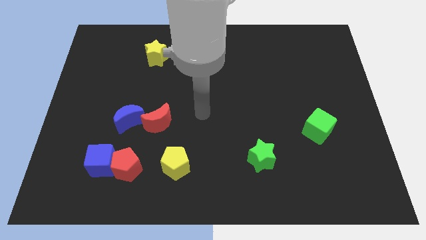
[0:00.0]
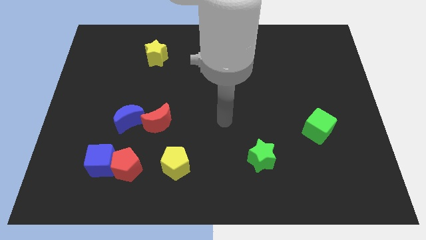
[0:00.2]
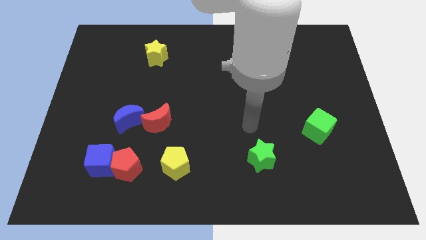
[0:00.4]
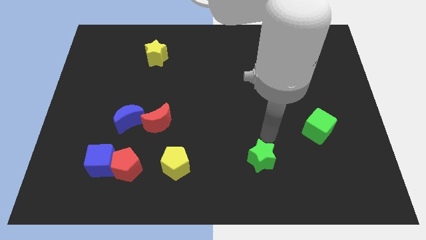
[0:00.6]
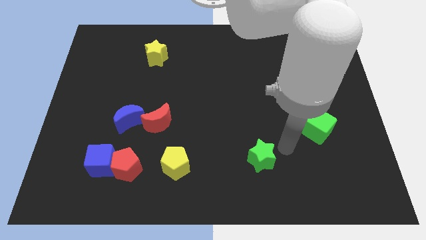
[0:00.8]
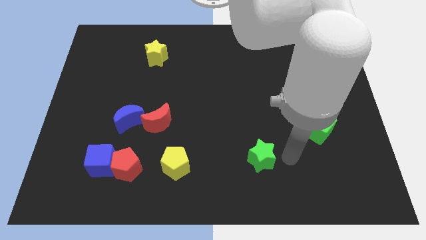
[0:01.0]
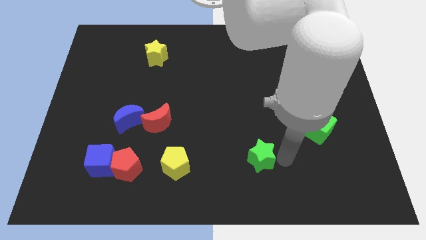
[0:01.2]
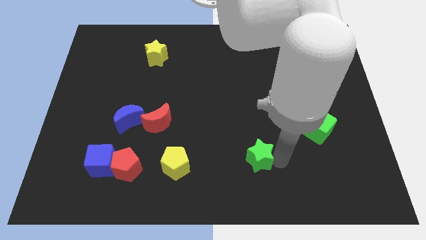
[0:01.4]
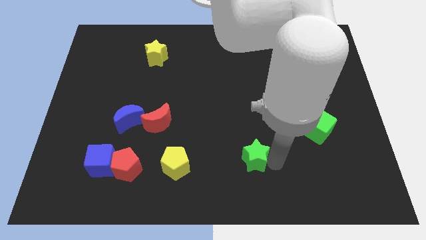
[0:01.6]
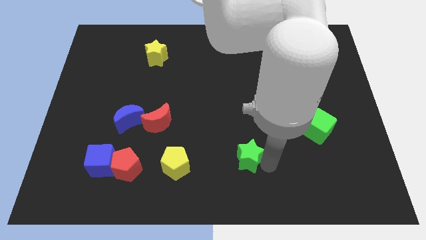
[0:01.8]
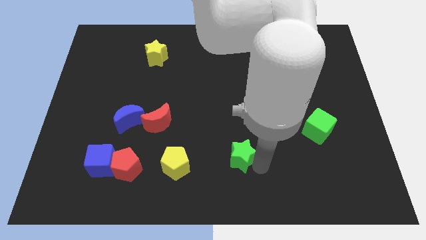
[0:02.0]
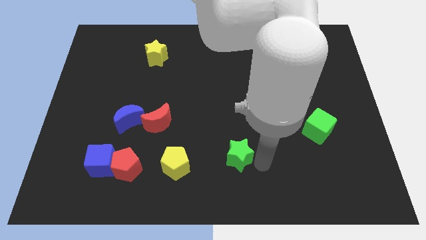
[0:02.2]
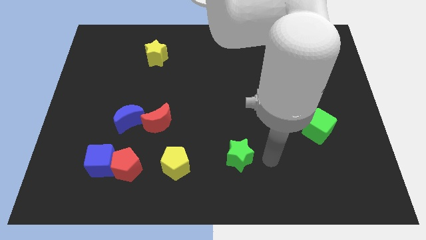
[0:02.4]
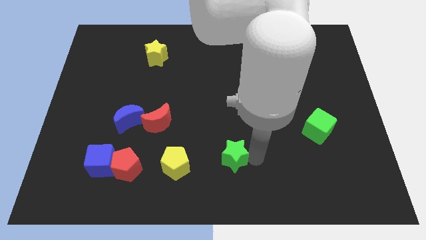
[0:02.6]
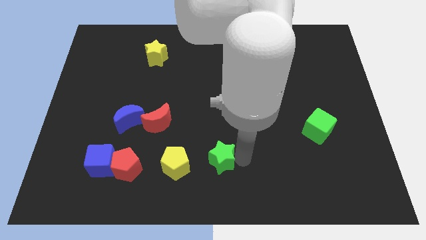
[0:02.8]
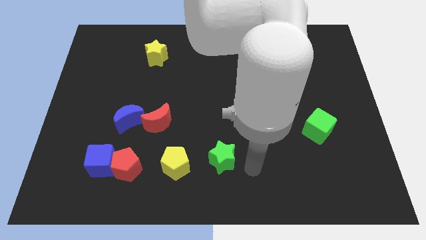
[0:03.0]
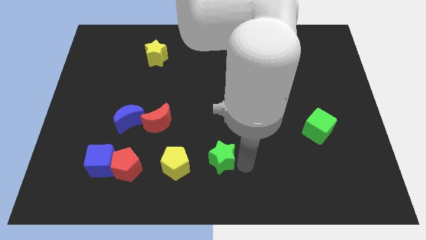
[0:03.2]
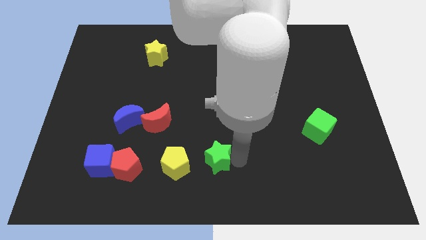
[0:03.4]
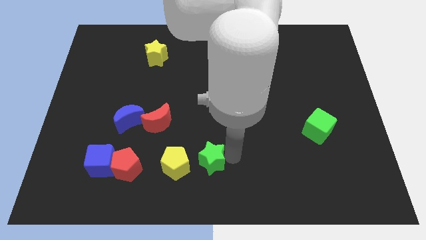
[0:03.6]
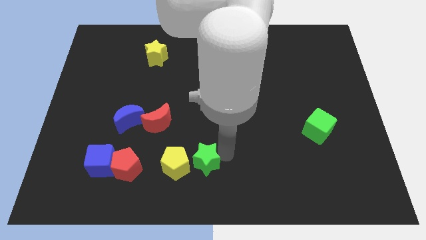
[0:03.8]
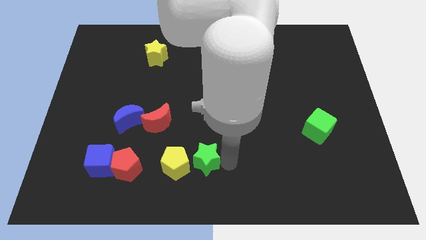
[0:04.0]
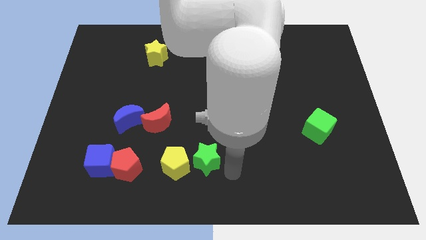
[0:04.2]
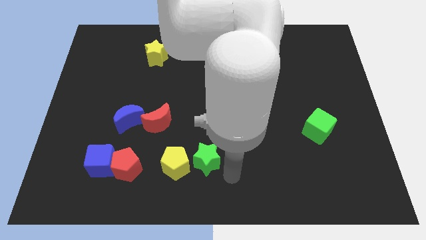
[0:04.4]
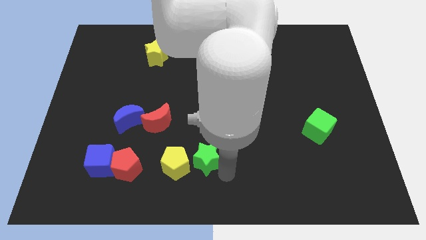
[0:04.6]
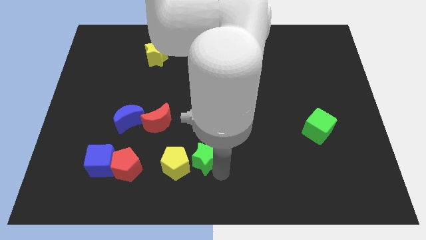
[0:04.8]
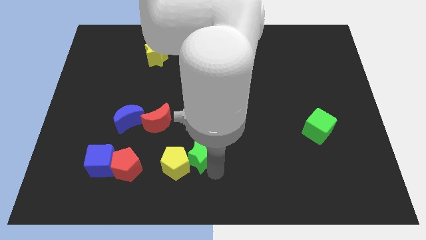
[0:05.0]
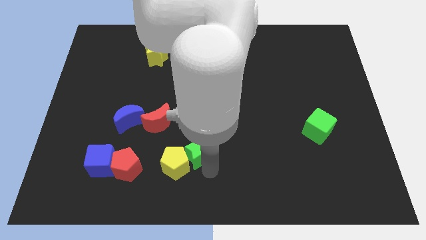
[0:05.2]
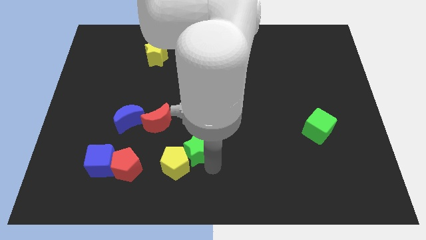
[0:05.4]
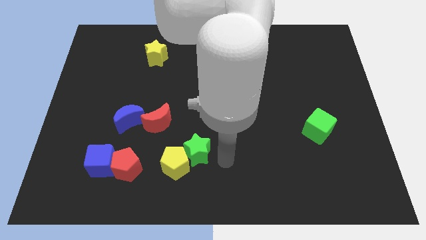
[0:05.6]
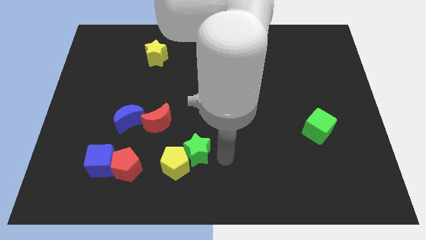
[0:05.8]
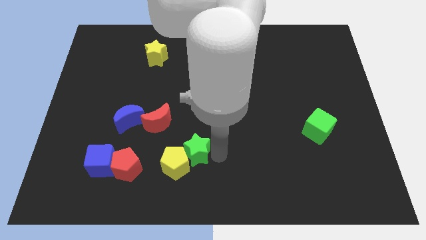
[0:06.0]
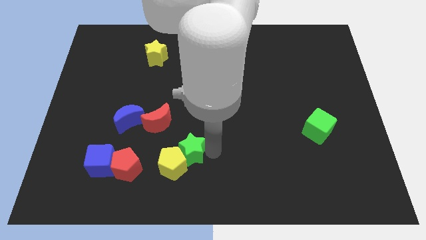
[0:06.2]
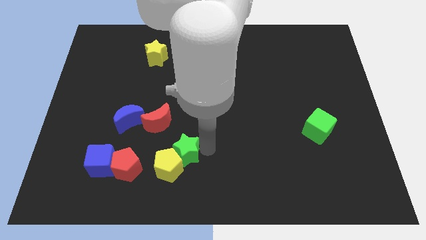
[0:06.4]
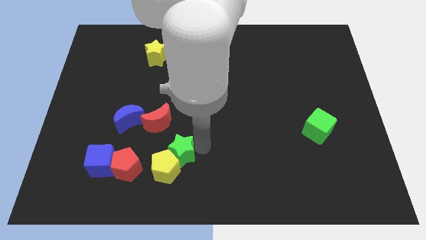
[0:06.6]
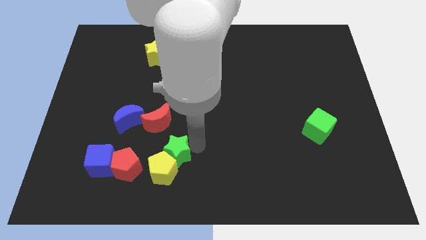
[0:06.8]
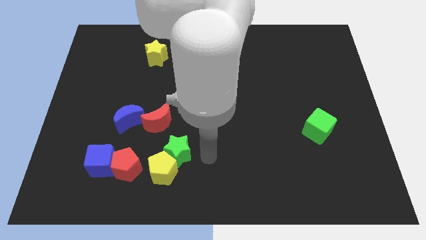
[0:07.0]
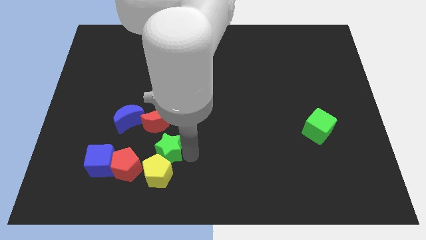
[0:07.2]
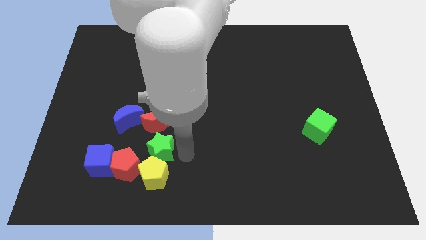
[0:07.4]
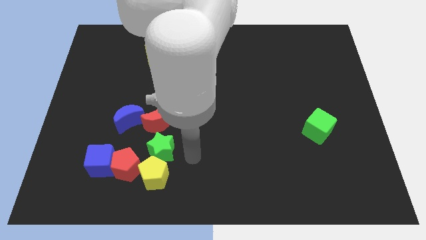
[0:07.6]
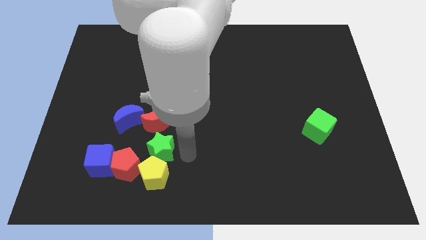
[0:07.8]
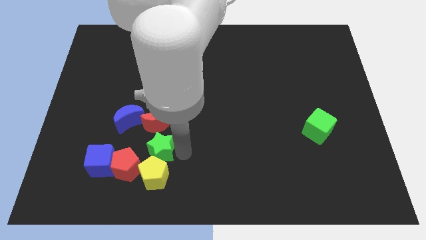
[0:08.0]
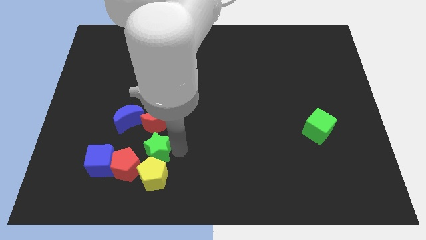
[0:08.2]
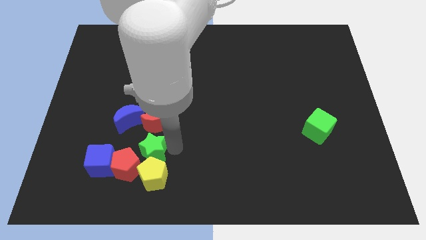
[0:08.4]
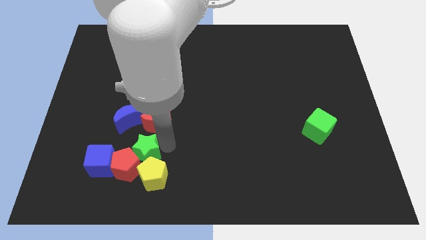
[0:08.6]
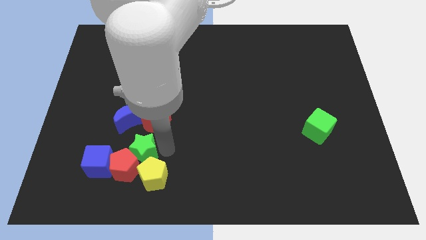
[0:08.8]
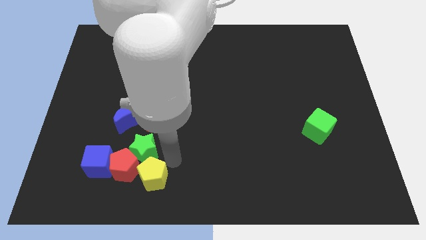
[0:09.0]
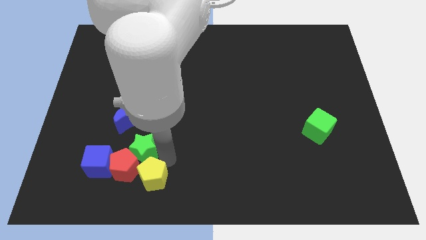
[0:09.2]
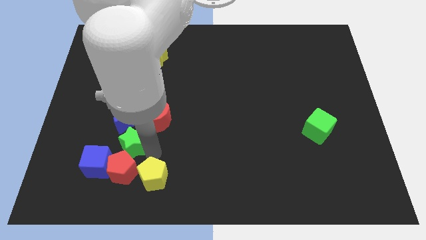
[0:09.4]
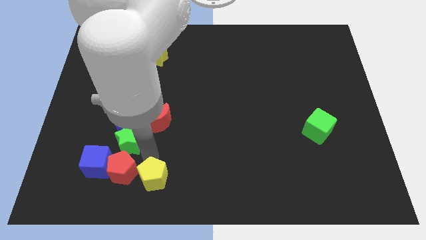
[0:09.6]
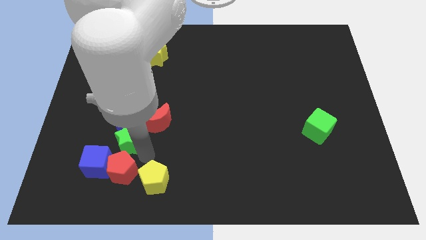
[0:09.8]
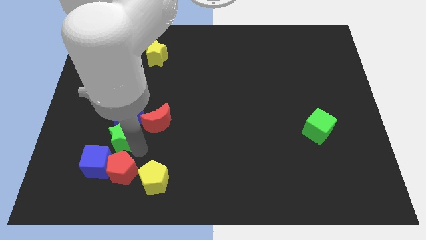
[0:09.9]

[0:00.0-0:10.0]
slide the green star to the top side of the blue cube

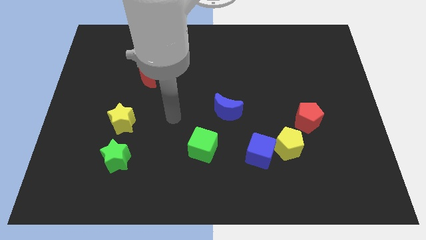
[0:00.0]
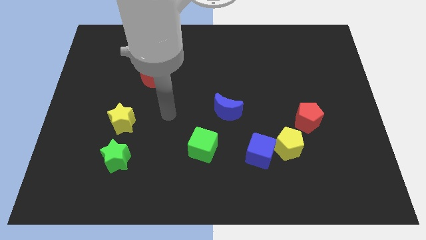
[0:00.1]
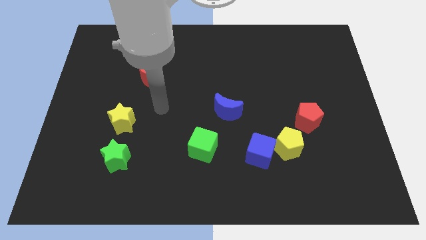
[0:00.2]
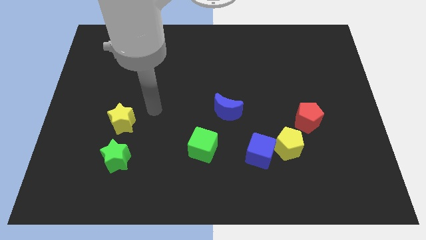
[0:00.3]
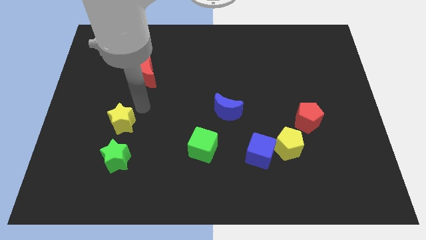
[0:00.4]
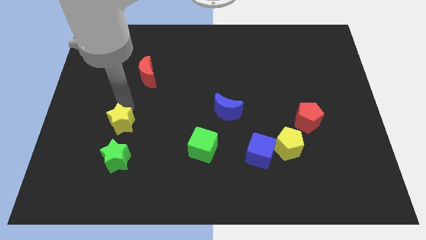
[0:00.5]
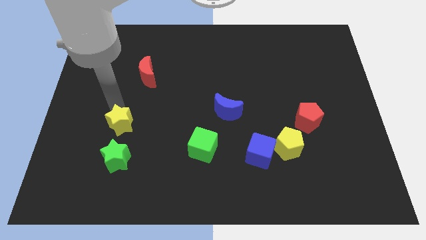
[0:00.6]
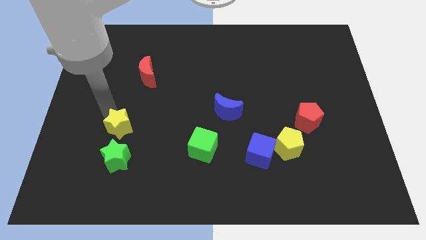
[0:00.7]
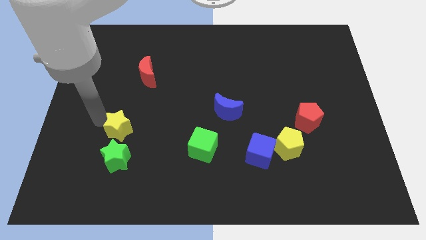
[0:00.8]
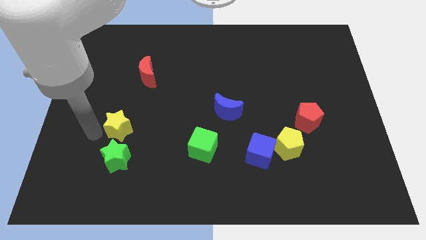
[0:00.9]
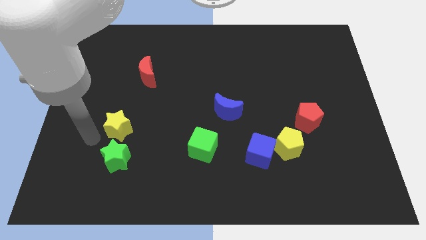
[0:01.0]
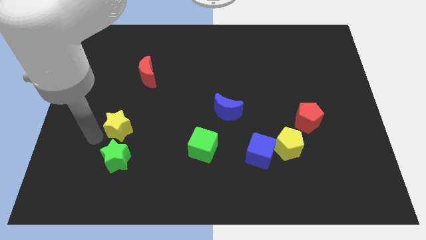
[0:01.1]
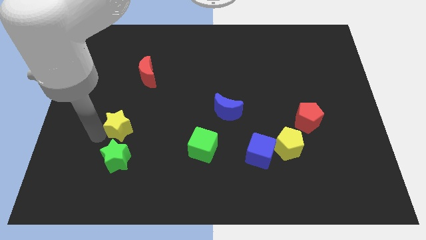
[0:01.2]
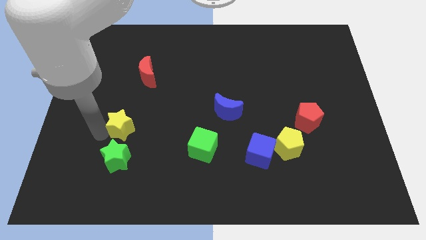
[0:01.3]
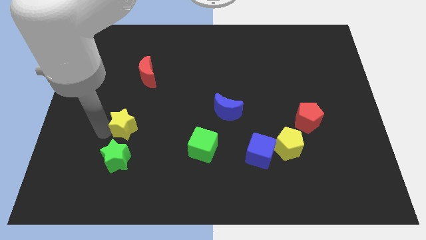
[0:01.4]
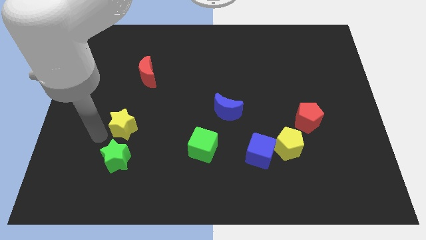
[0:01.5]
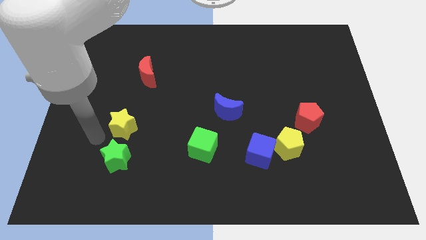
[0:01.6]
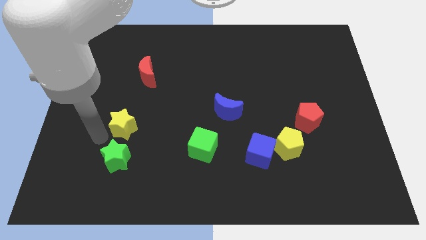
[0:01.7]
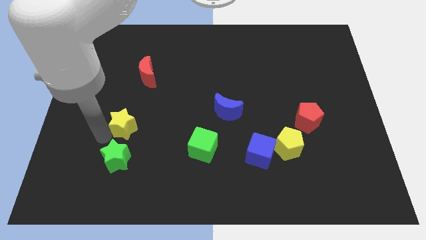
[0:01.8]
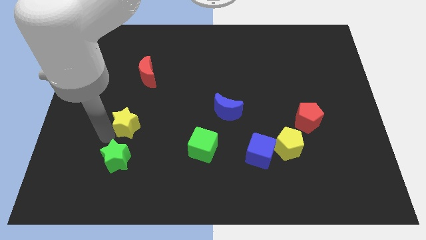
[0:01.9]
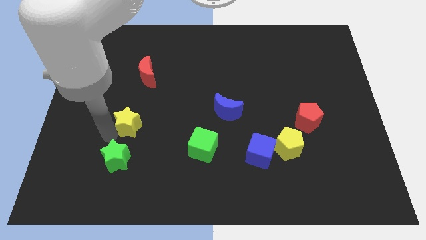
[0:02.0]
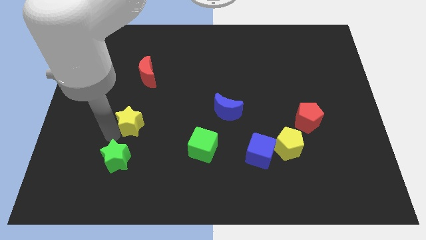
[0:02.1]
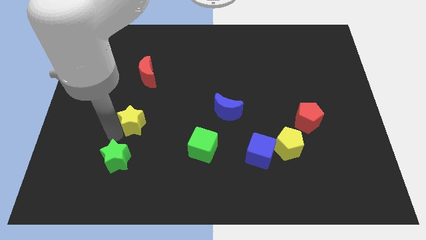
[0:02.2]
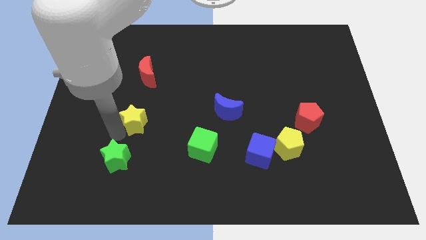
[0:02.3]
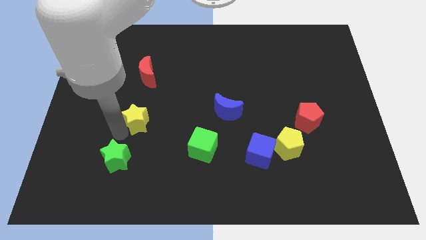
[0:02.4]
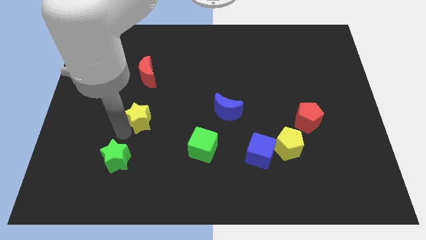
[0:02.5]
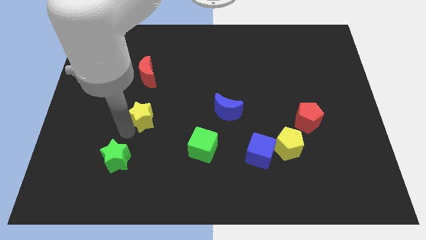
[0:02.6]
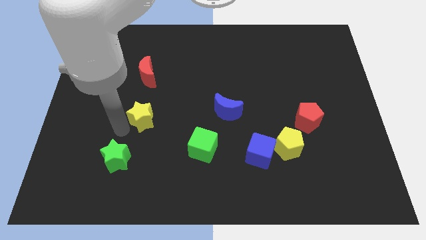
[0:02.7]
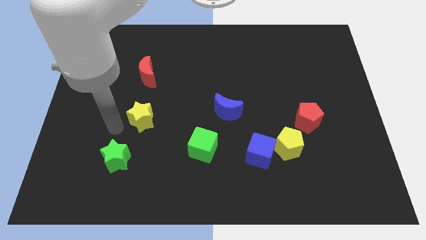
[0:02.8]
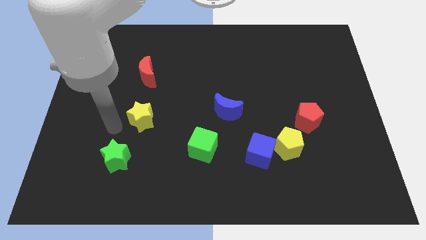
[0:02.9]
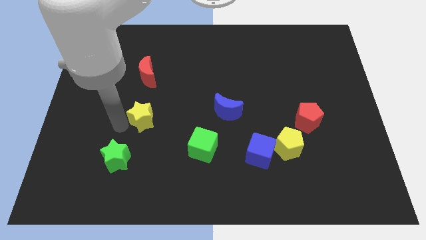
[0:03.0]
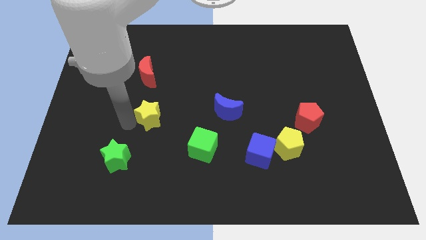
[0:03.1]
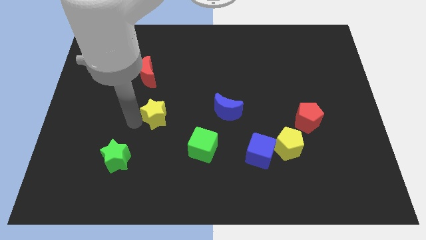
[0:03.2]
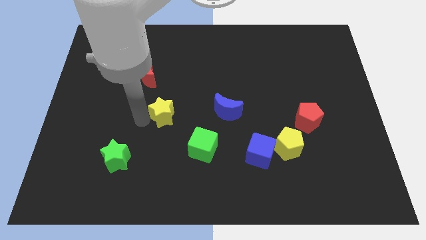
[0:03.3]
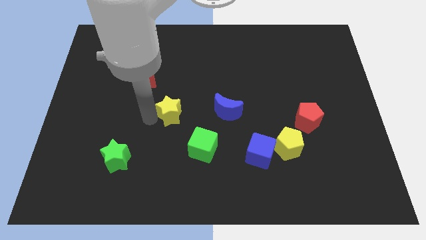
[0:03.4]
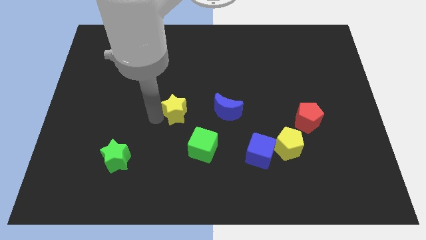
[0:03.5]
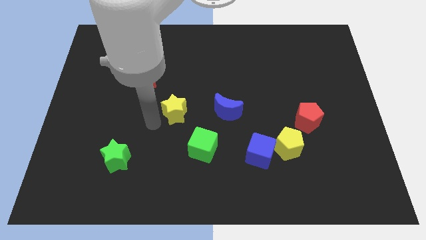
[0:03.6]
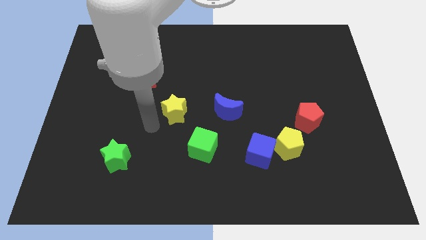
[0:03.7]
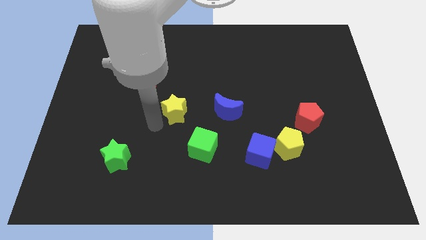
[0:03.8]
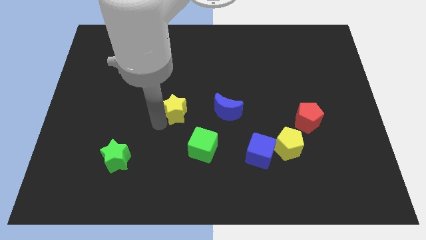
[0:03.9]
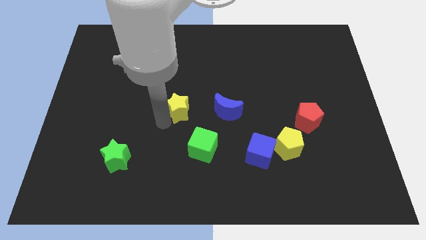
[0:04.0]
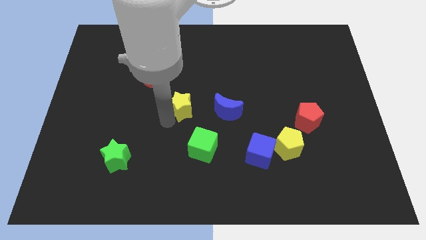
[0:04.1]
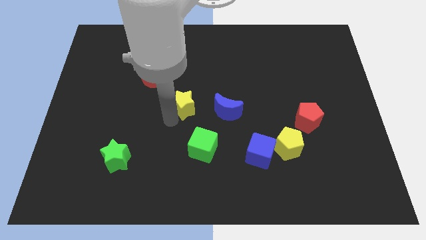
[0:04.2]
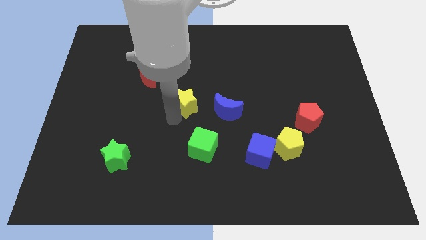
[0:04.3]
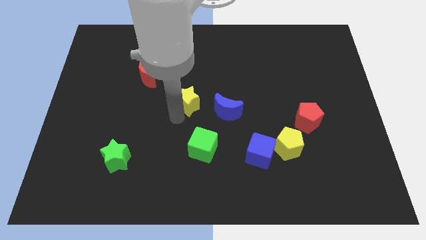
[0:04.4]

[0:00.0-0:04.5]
push the yellow star to the top left of the blue moon
